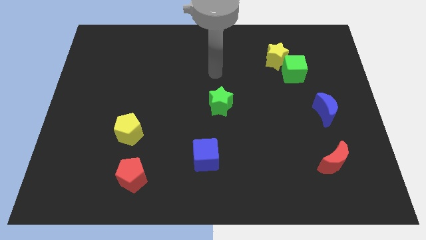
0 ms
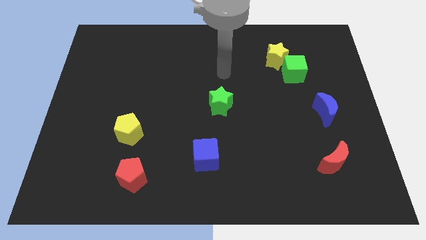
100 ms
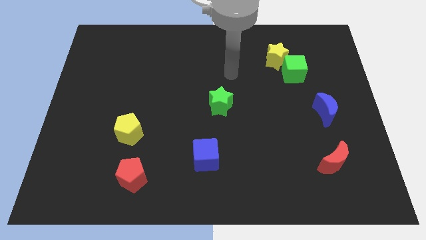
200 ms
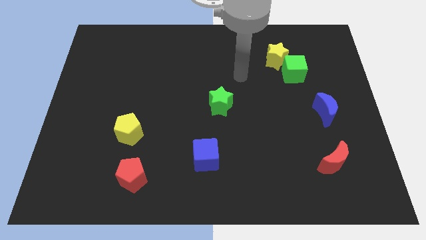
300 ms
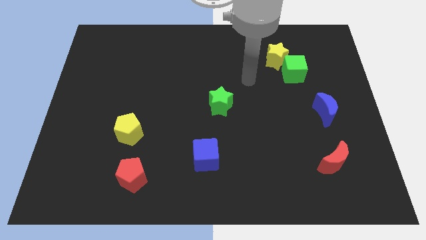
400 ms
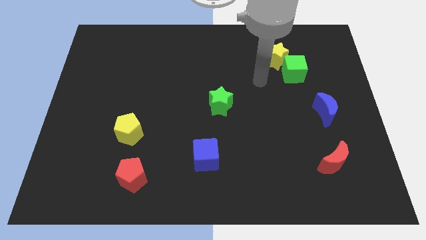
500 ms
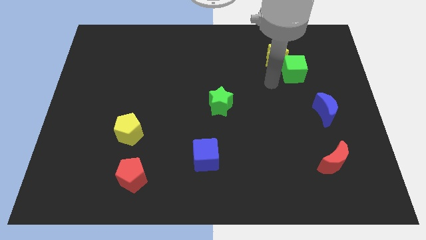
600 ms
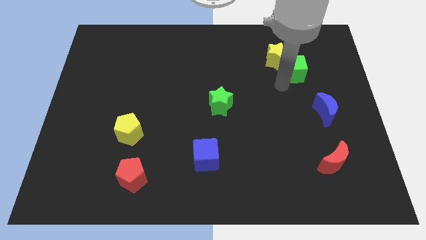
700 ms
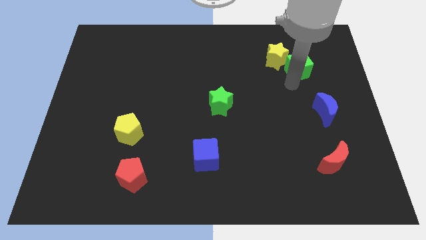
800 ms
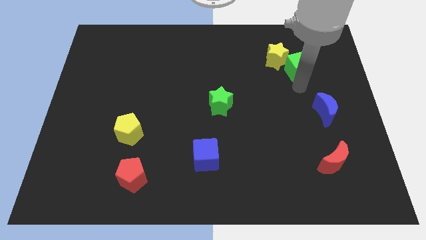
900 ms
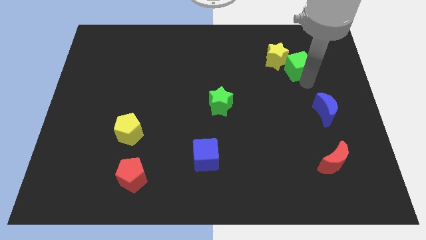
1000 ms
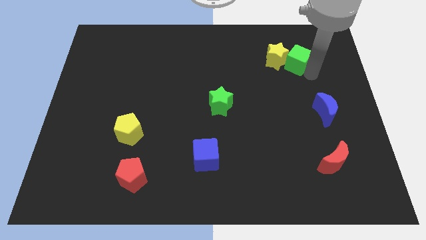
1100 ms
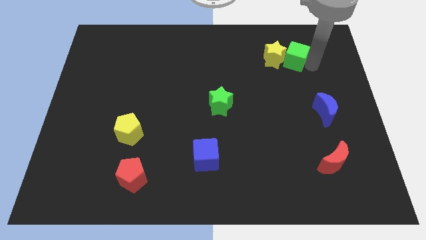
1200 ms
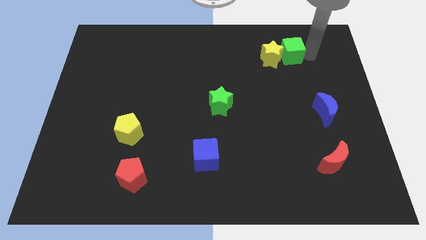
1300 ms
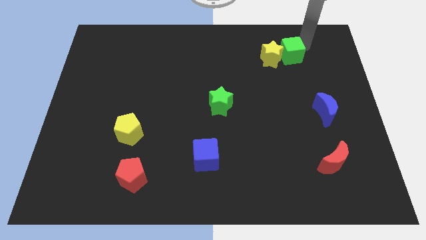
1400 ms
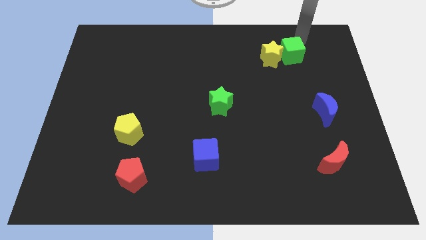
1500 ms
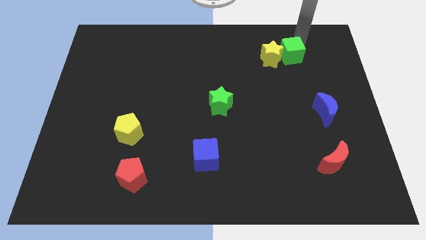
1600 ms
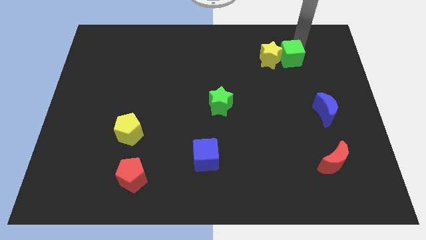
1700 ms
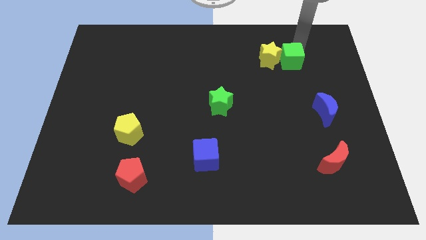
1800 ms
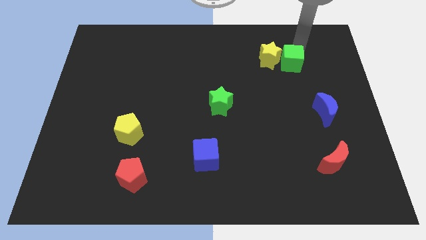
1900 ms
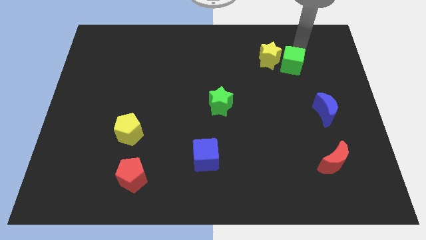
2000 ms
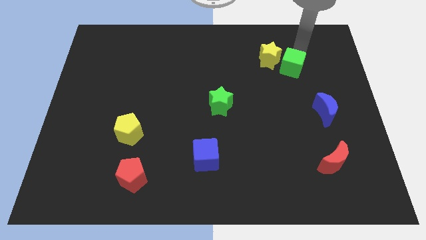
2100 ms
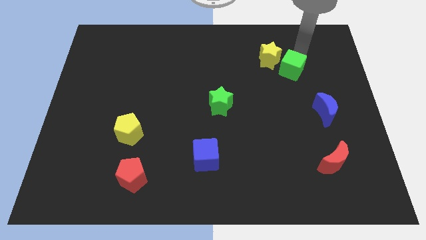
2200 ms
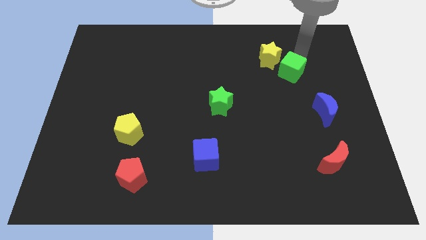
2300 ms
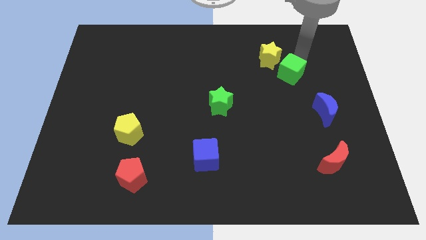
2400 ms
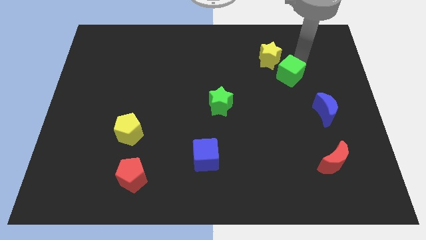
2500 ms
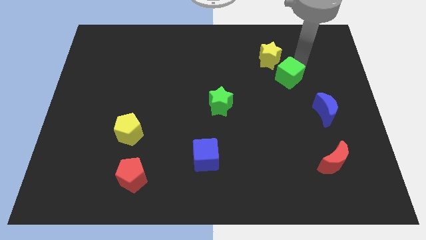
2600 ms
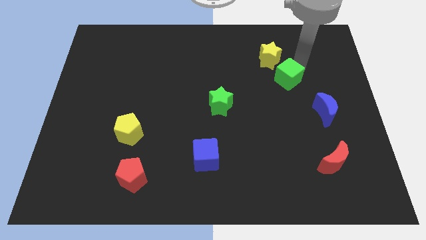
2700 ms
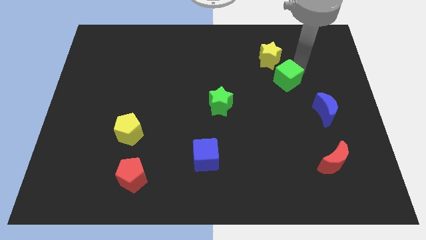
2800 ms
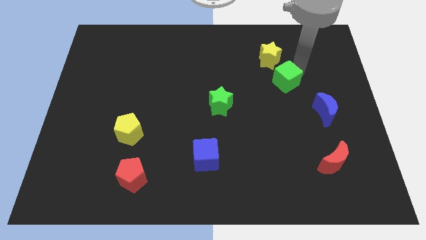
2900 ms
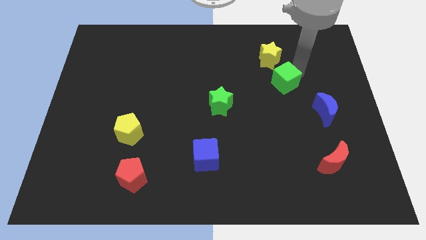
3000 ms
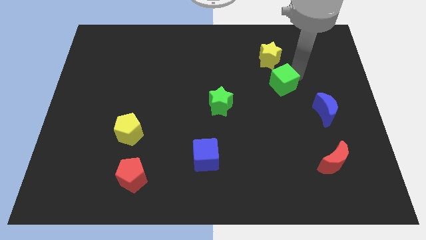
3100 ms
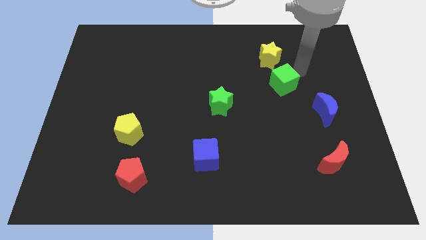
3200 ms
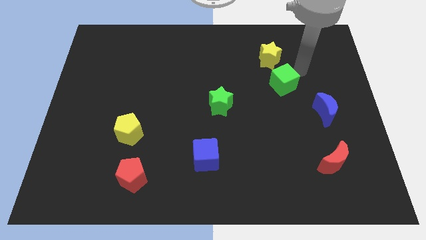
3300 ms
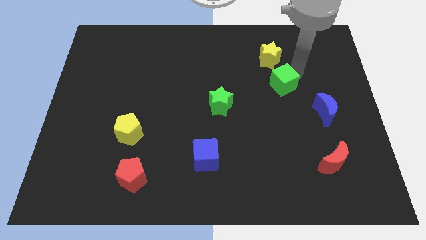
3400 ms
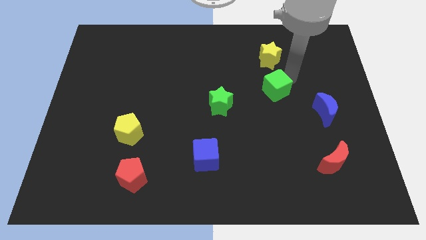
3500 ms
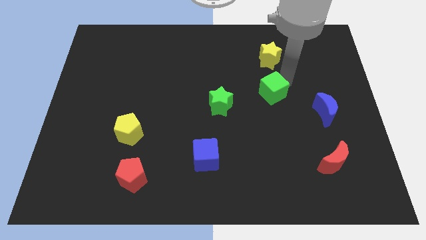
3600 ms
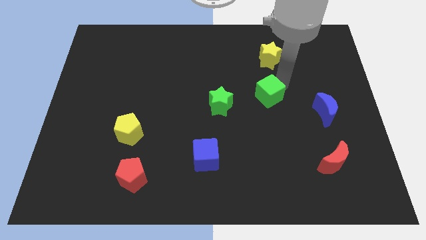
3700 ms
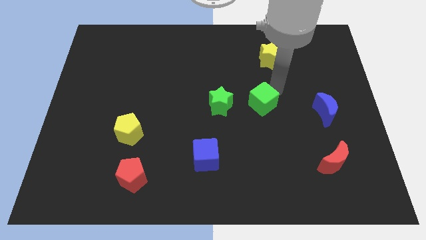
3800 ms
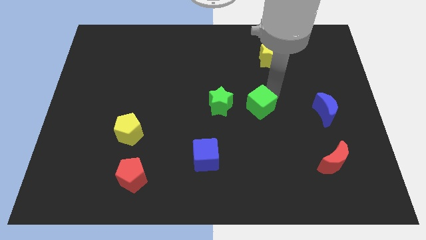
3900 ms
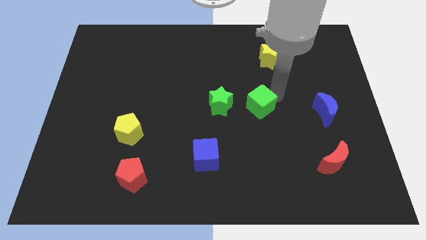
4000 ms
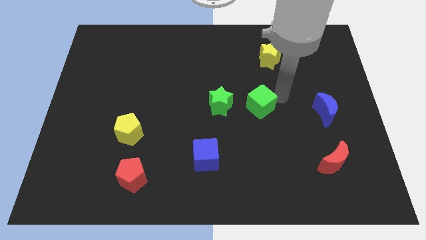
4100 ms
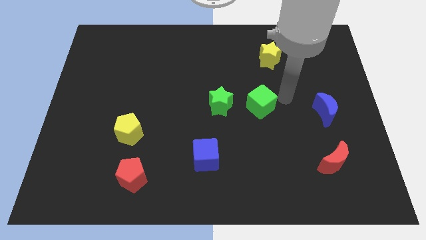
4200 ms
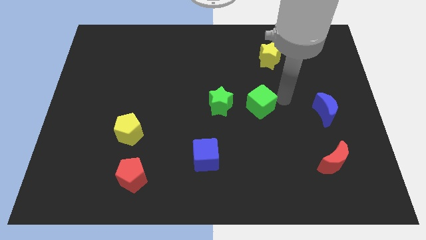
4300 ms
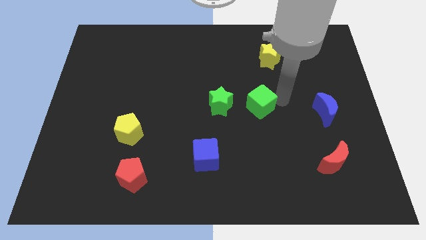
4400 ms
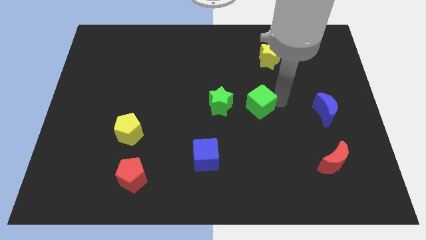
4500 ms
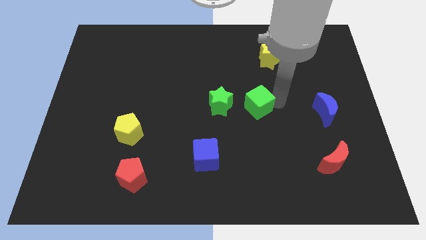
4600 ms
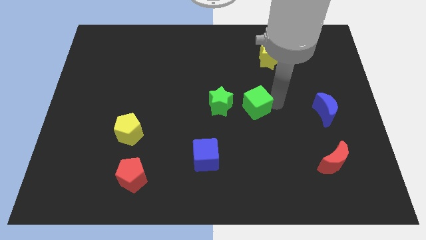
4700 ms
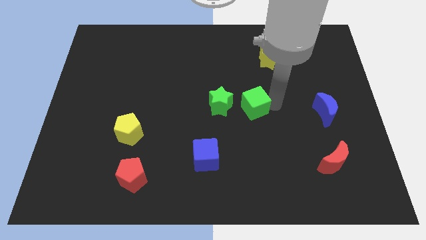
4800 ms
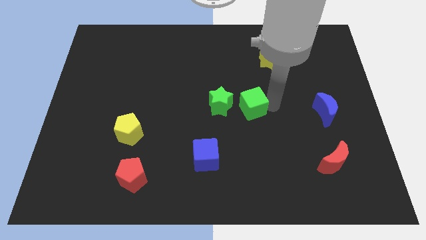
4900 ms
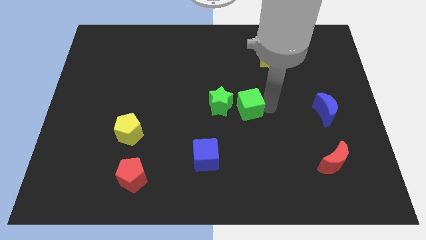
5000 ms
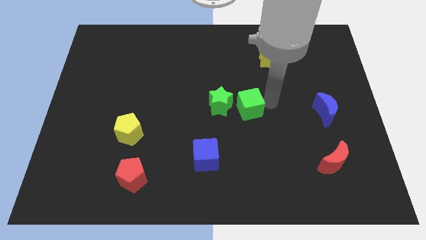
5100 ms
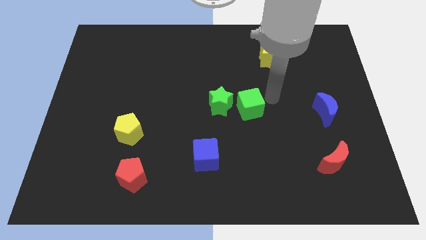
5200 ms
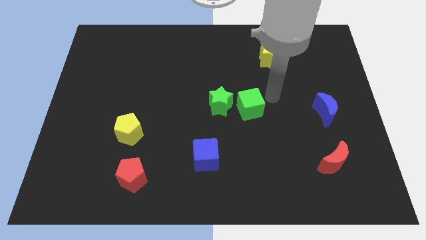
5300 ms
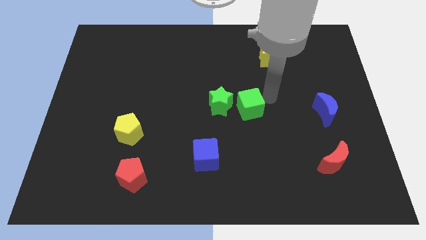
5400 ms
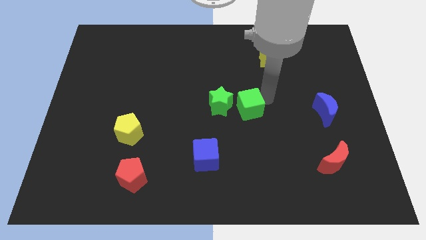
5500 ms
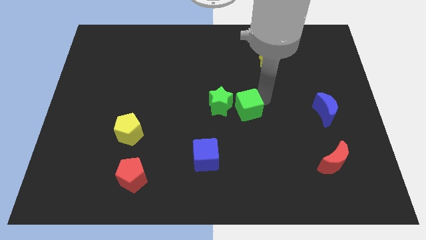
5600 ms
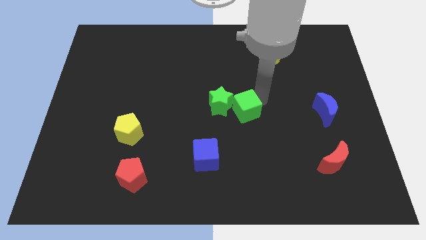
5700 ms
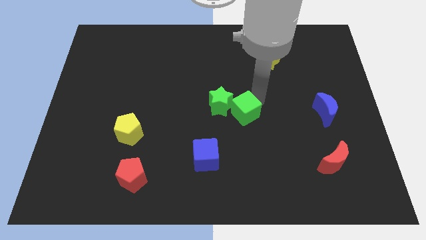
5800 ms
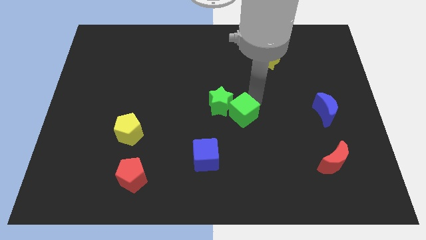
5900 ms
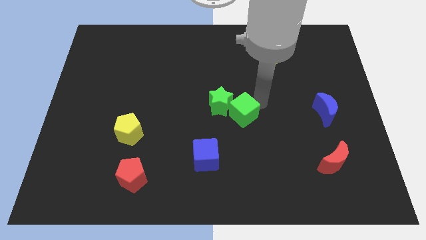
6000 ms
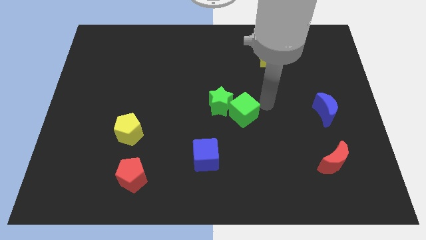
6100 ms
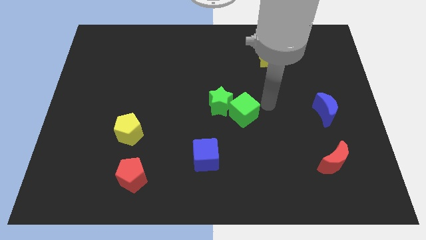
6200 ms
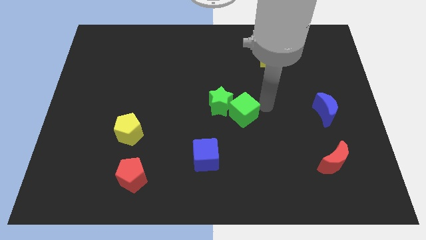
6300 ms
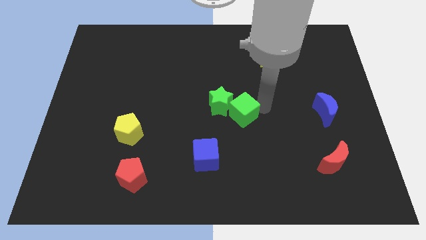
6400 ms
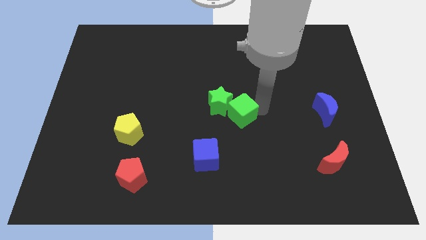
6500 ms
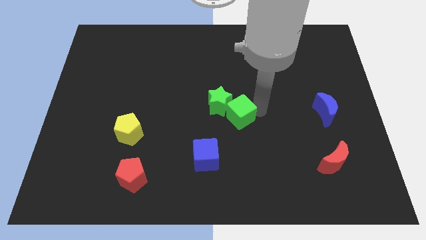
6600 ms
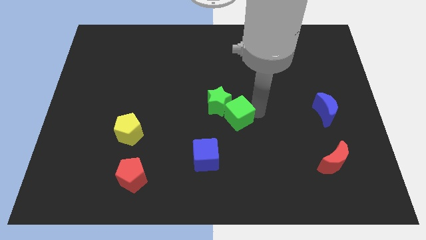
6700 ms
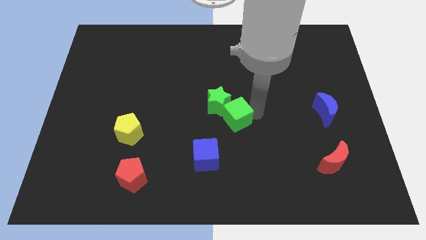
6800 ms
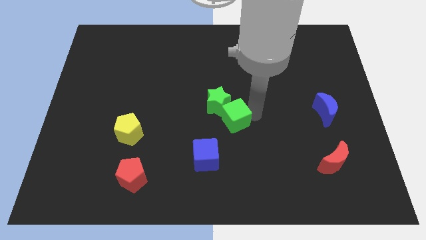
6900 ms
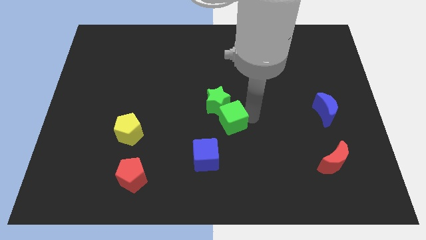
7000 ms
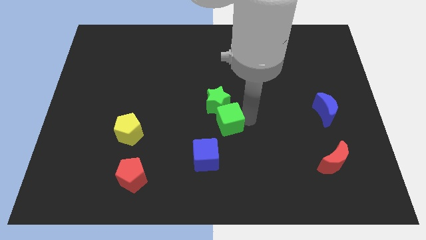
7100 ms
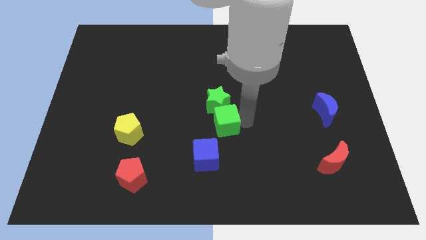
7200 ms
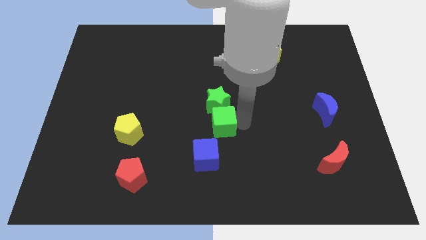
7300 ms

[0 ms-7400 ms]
push the green cube to the bottom left side of the green star
